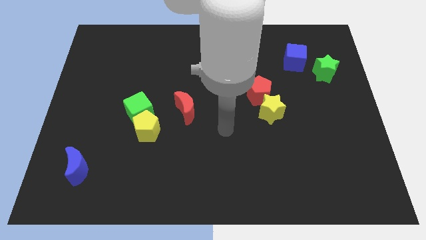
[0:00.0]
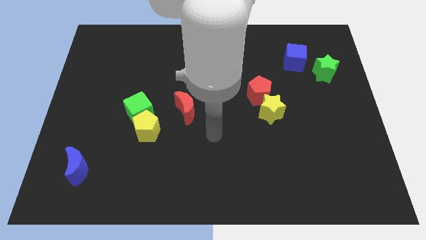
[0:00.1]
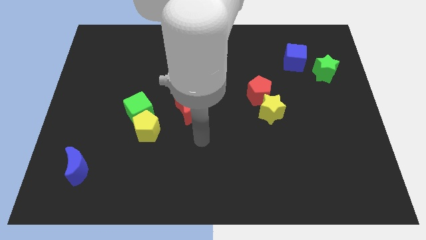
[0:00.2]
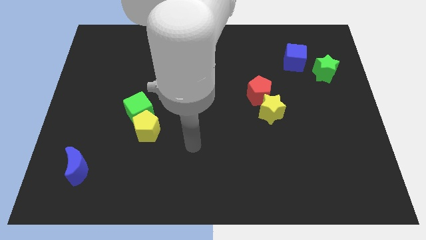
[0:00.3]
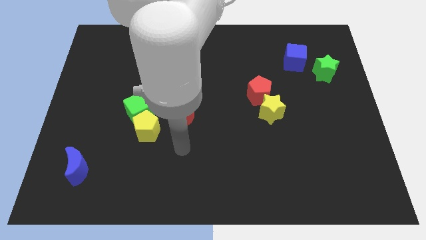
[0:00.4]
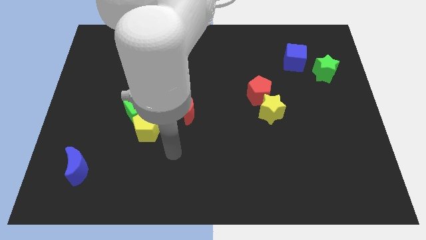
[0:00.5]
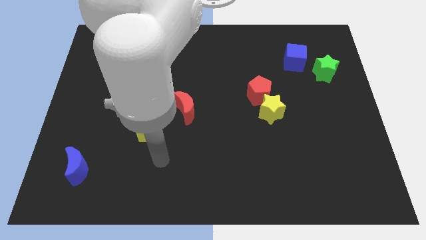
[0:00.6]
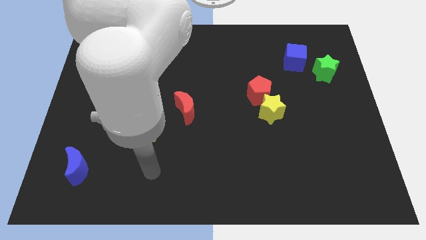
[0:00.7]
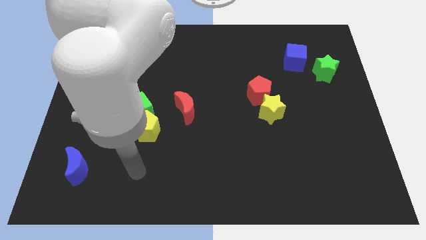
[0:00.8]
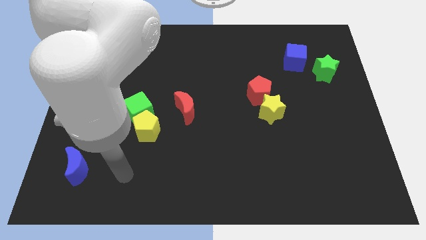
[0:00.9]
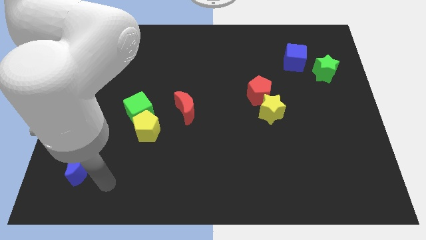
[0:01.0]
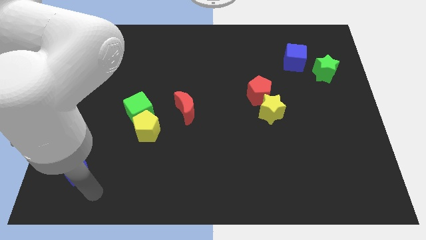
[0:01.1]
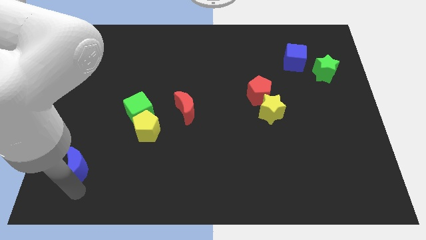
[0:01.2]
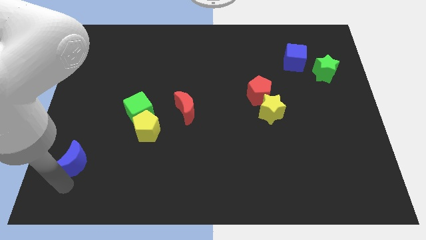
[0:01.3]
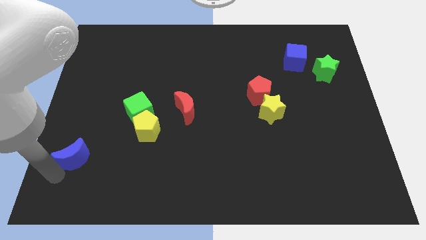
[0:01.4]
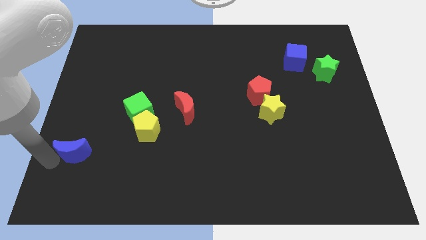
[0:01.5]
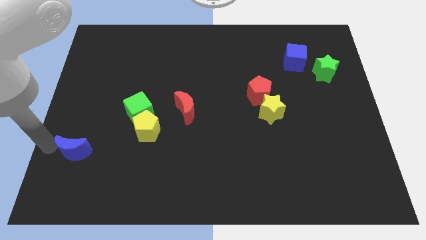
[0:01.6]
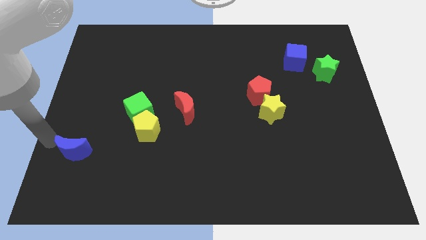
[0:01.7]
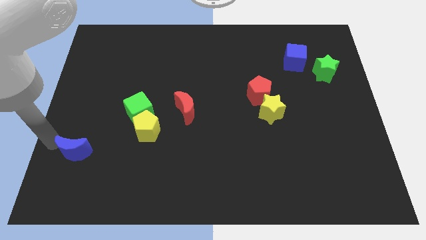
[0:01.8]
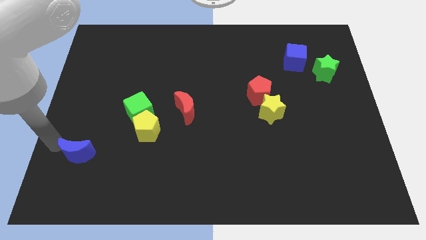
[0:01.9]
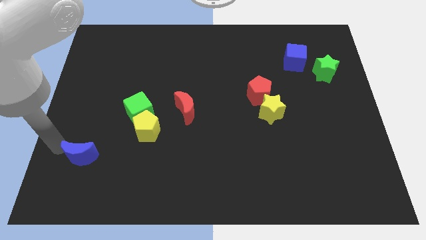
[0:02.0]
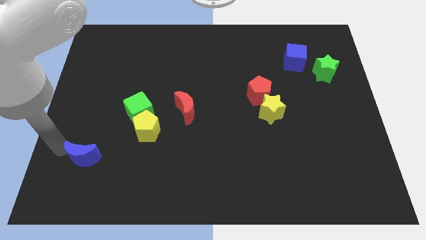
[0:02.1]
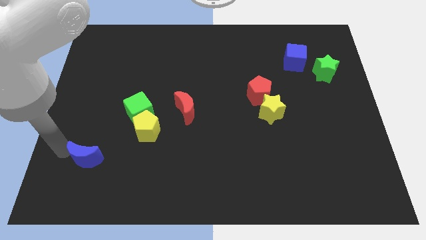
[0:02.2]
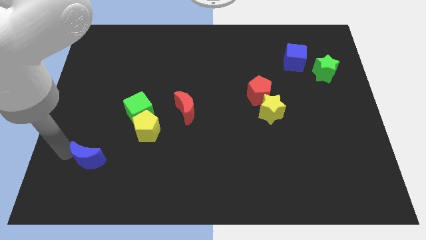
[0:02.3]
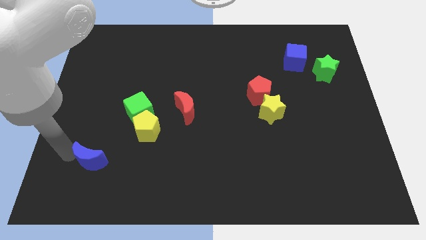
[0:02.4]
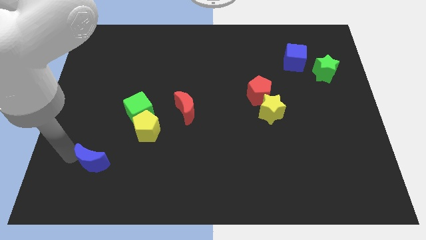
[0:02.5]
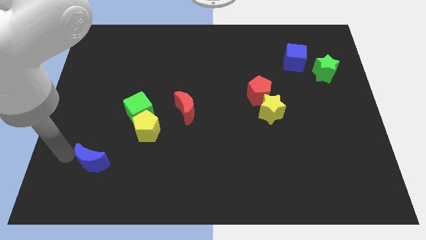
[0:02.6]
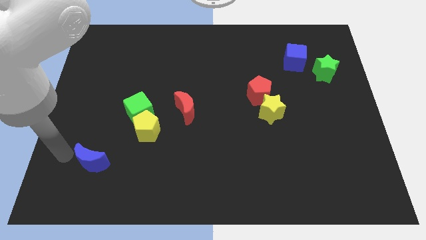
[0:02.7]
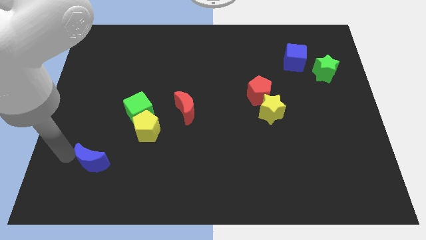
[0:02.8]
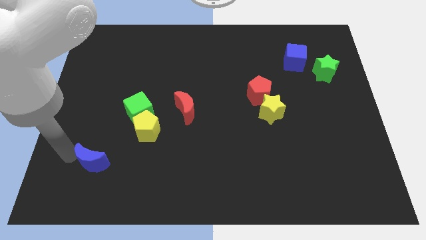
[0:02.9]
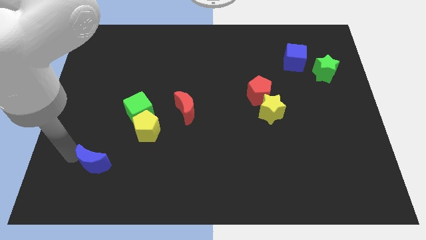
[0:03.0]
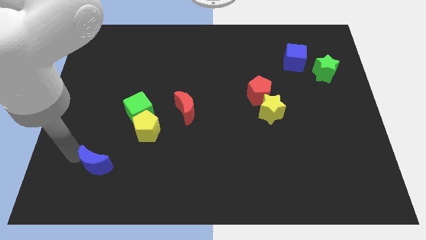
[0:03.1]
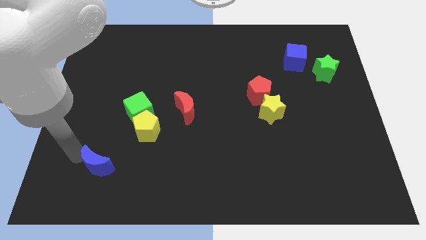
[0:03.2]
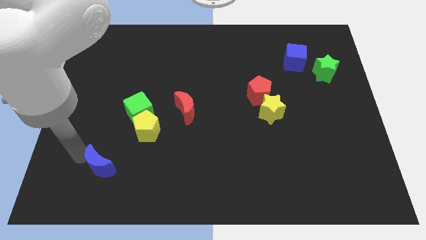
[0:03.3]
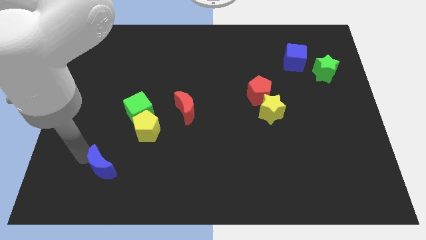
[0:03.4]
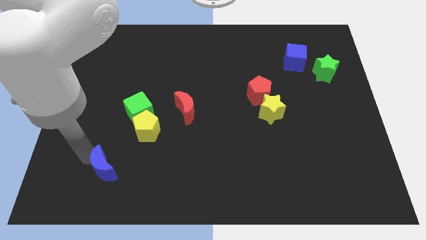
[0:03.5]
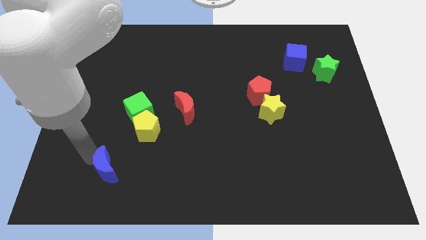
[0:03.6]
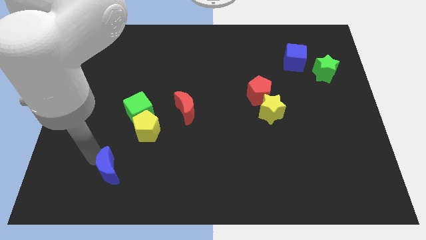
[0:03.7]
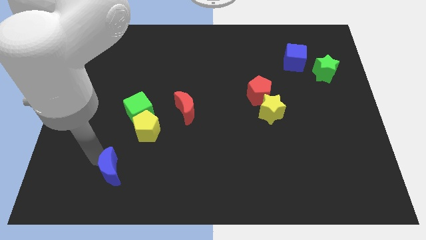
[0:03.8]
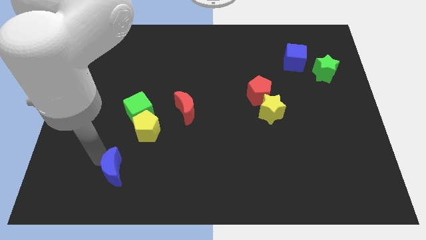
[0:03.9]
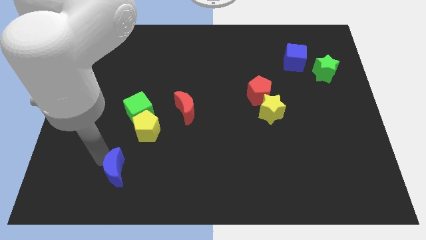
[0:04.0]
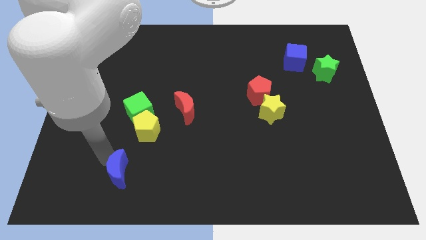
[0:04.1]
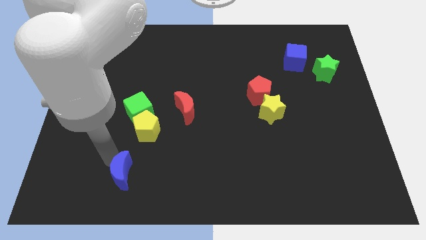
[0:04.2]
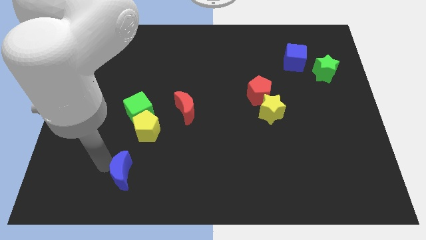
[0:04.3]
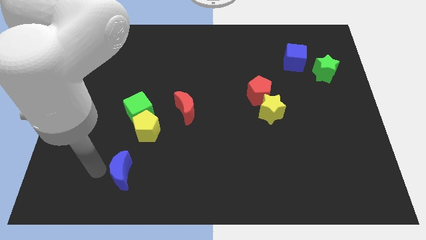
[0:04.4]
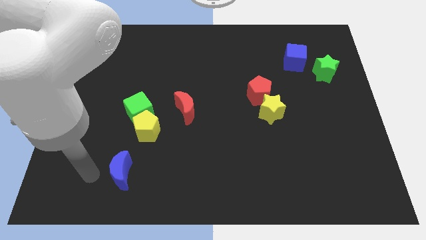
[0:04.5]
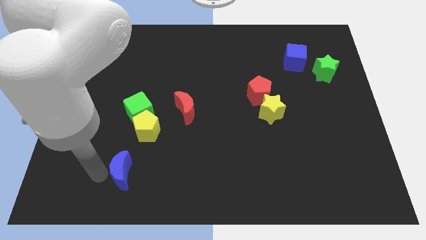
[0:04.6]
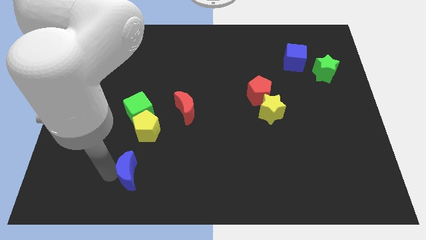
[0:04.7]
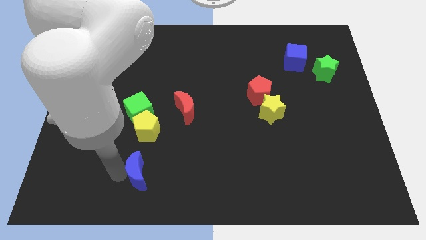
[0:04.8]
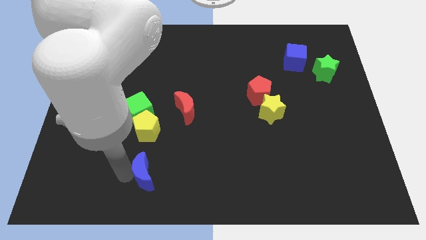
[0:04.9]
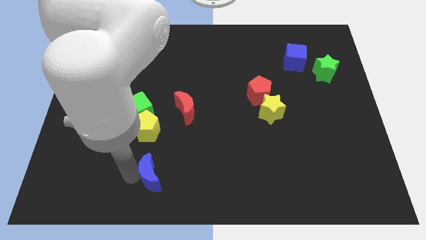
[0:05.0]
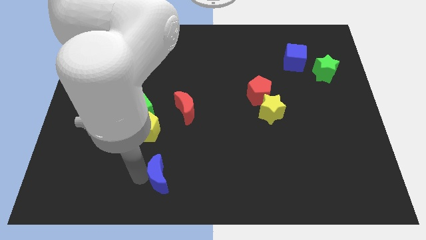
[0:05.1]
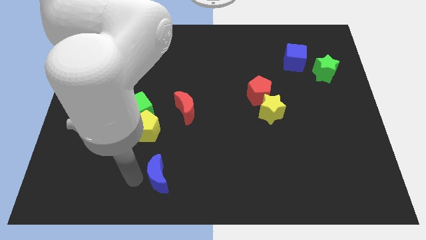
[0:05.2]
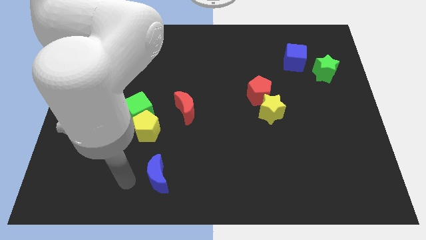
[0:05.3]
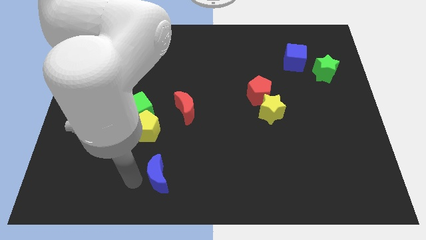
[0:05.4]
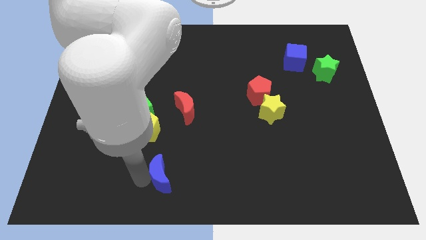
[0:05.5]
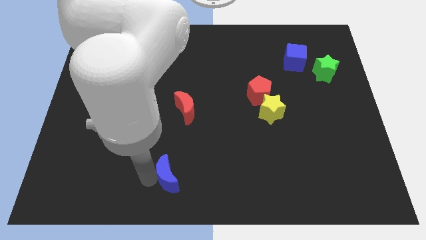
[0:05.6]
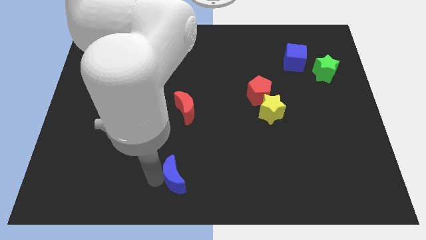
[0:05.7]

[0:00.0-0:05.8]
push the blue moon to the right

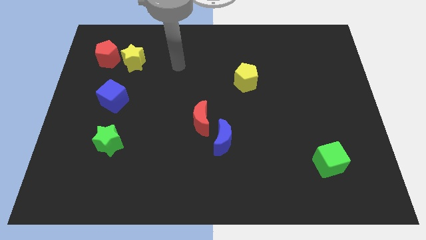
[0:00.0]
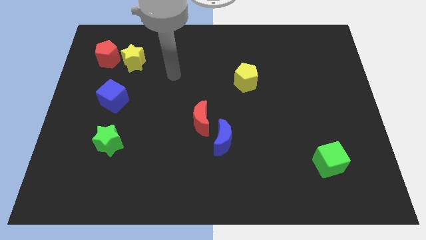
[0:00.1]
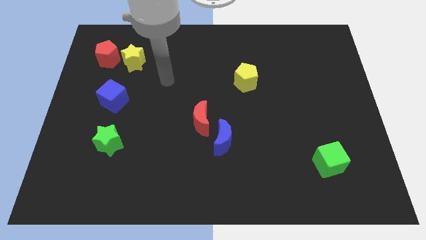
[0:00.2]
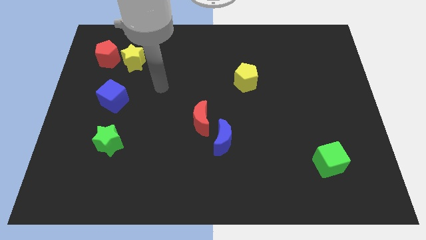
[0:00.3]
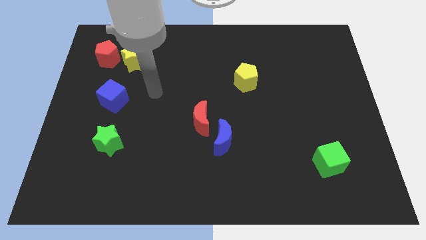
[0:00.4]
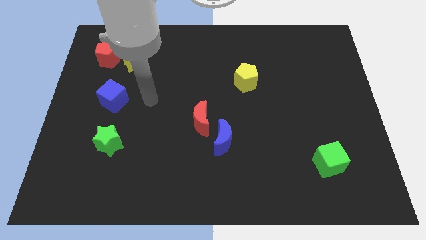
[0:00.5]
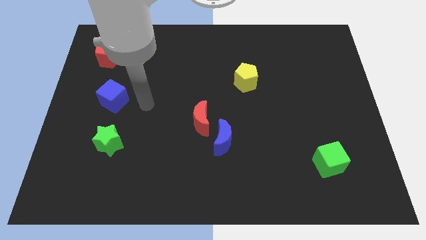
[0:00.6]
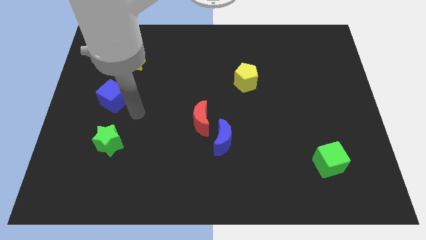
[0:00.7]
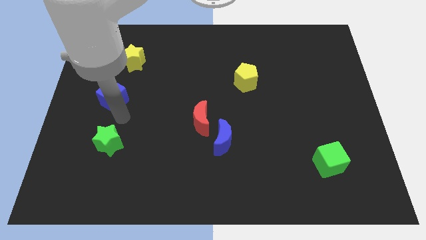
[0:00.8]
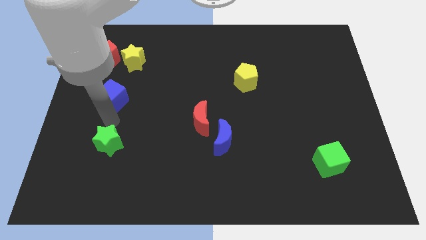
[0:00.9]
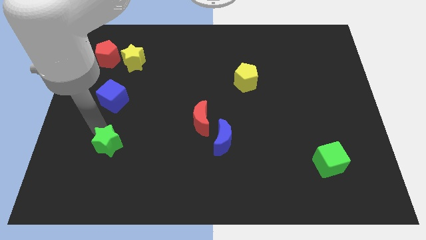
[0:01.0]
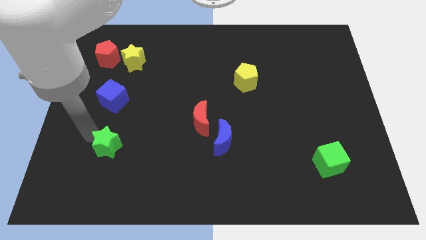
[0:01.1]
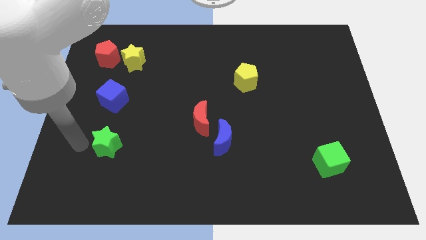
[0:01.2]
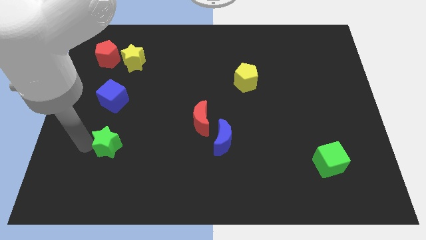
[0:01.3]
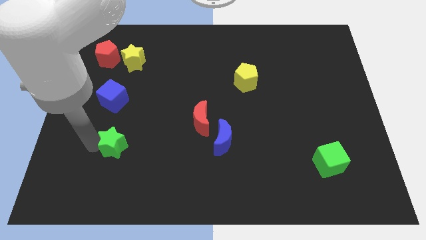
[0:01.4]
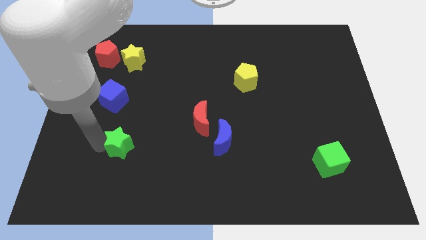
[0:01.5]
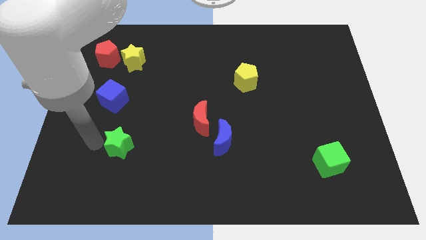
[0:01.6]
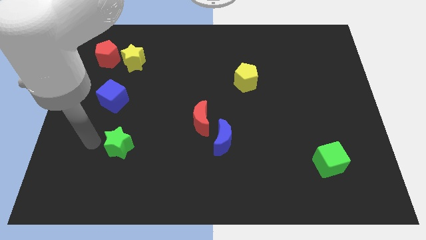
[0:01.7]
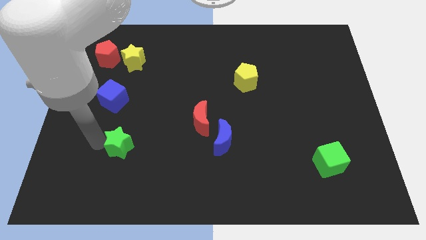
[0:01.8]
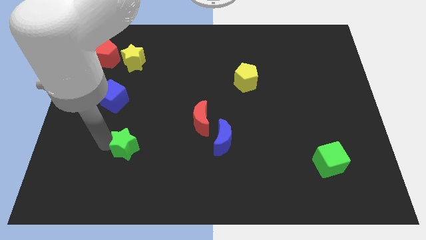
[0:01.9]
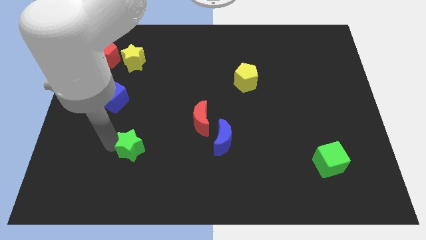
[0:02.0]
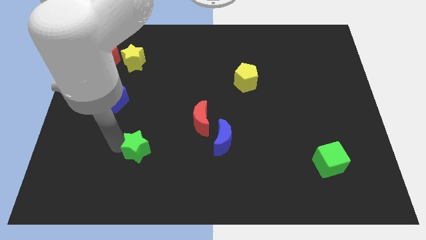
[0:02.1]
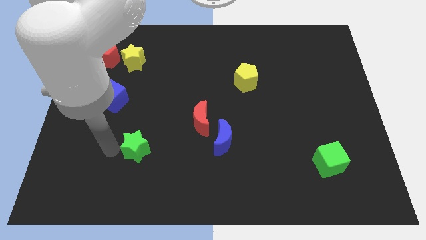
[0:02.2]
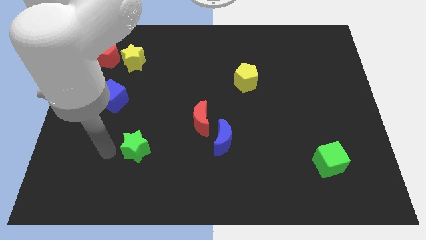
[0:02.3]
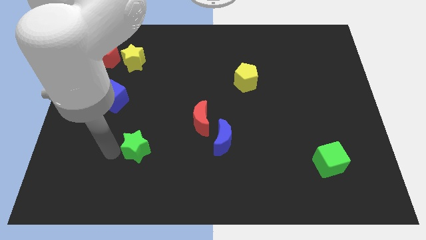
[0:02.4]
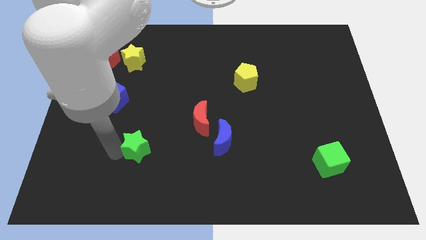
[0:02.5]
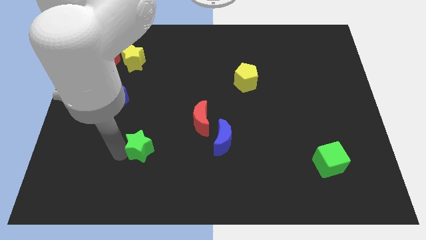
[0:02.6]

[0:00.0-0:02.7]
slightly slide the green star to the right
